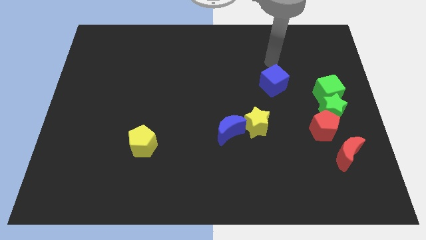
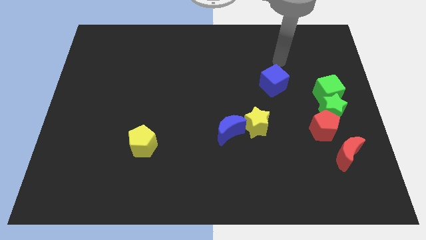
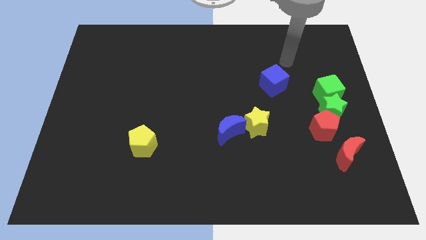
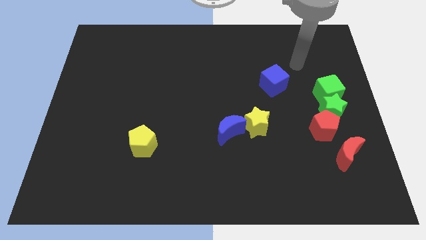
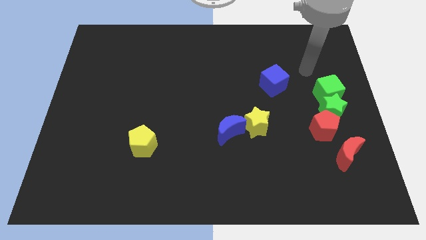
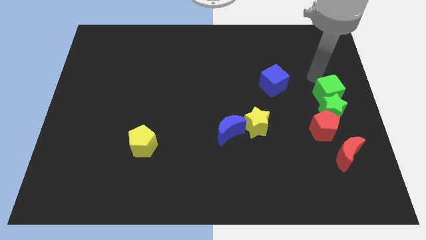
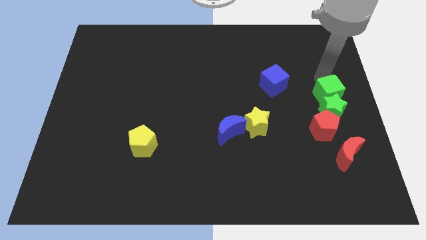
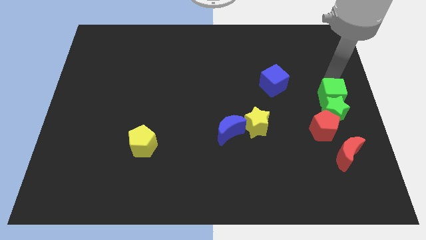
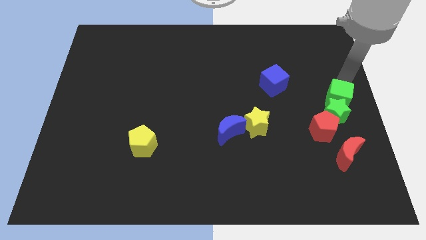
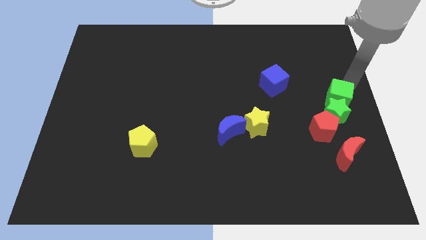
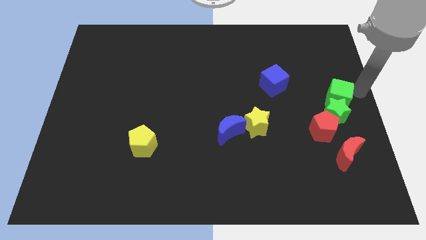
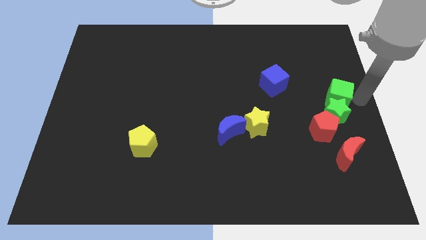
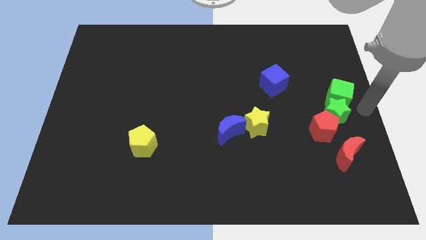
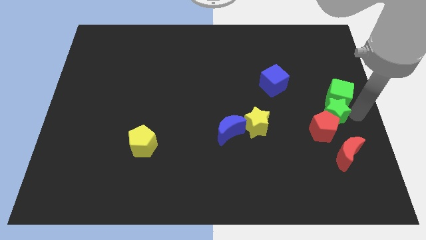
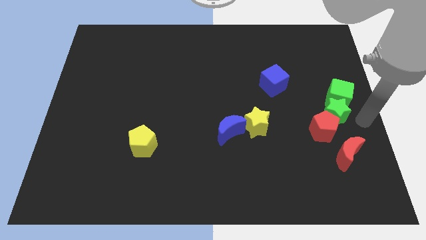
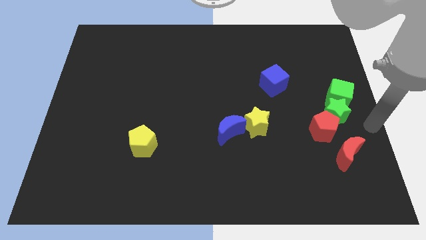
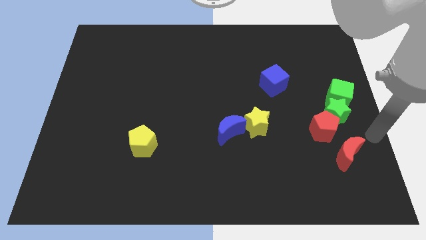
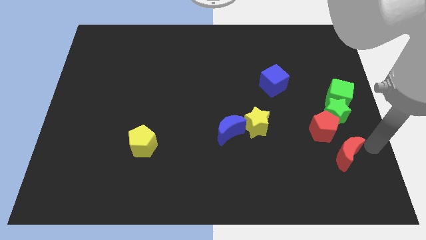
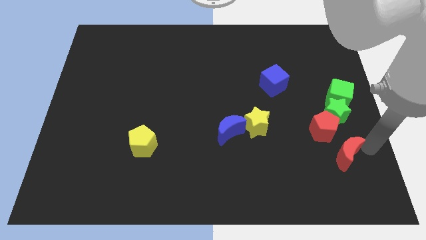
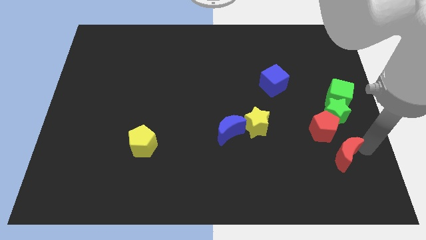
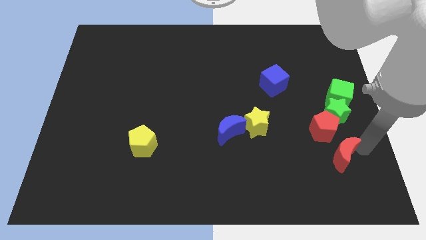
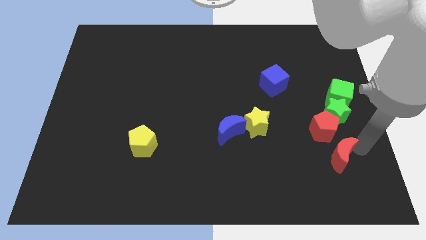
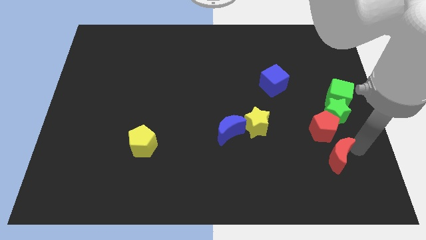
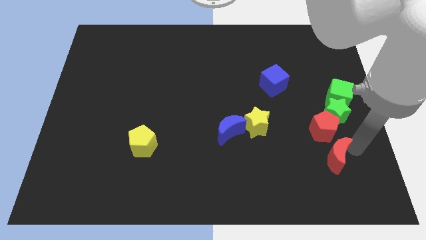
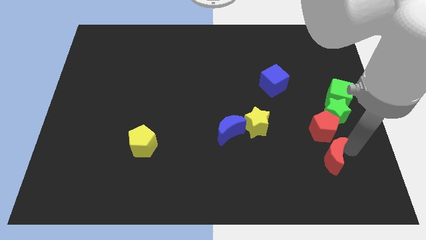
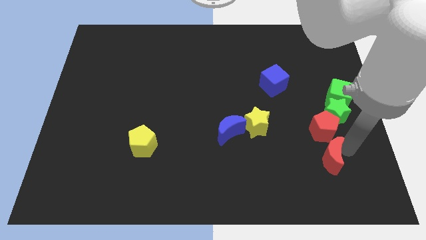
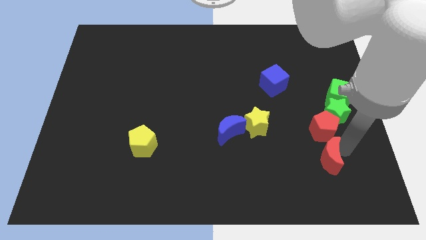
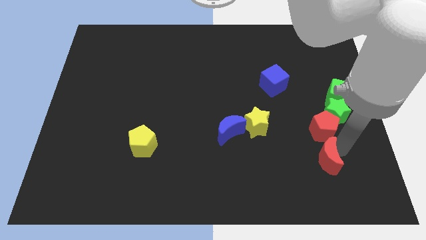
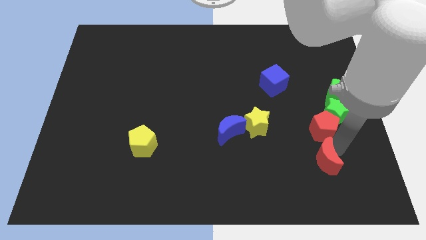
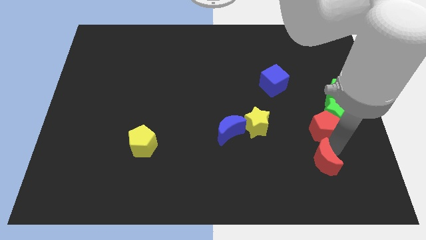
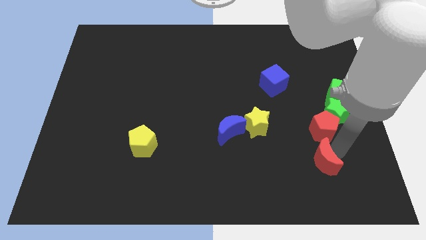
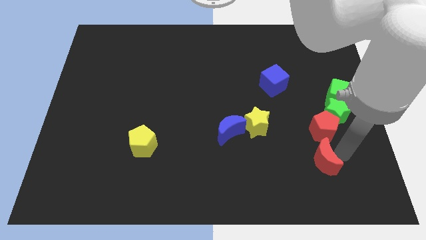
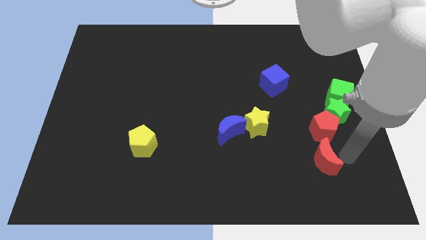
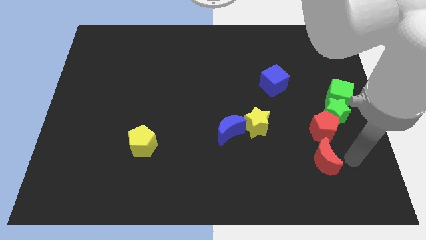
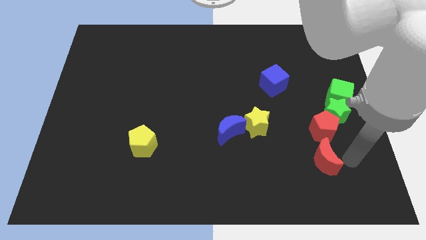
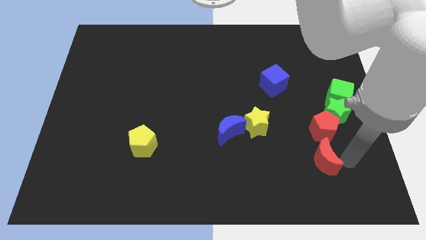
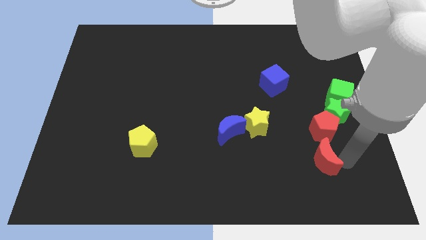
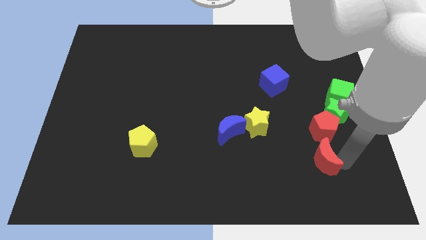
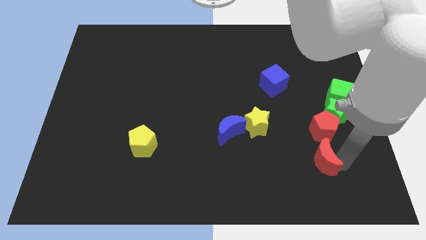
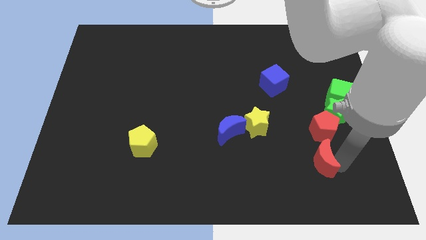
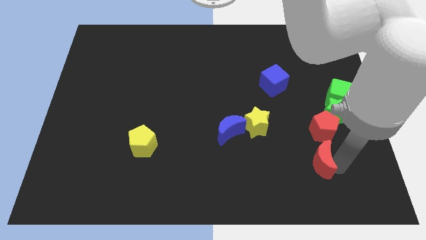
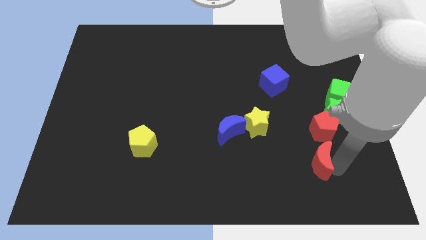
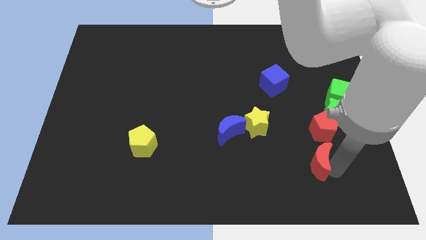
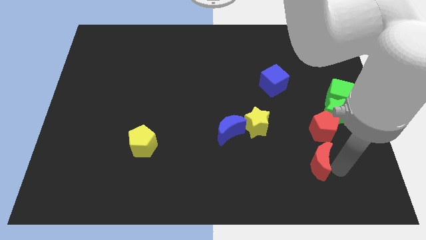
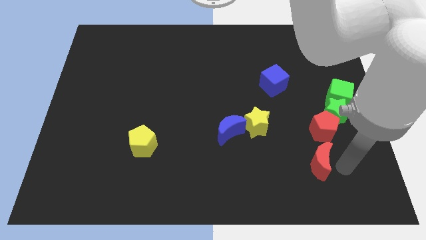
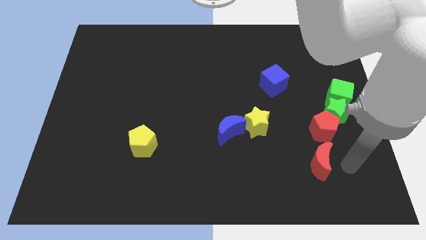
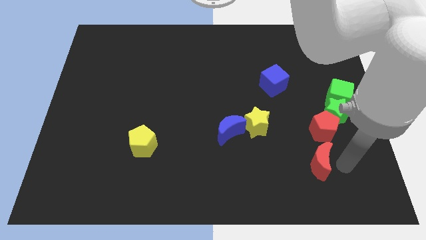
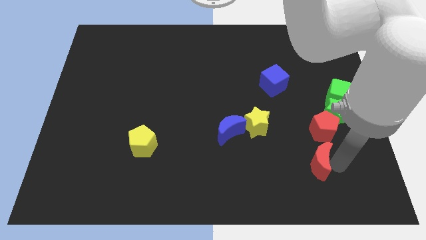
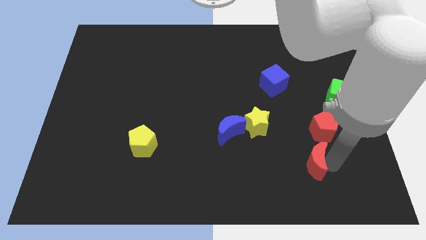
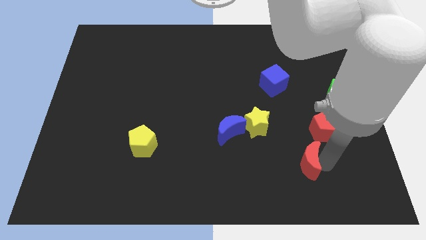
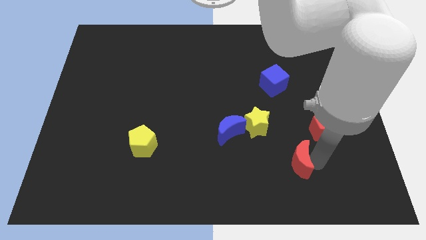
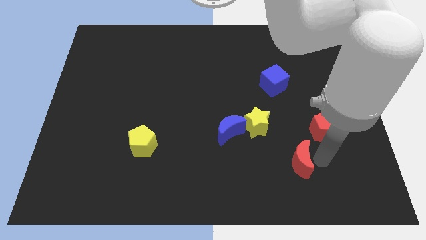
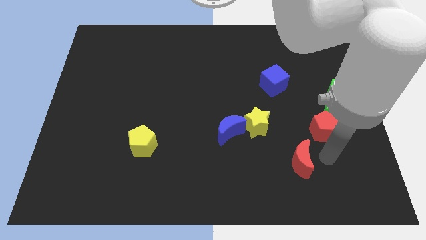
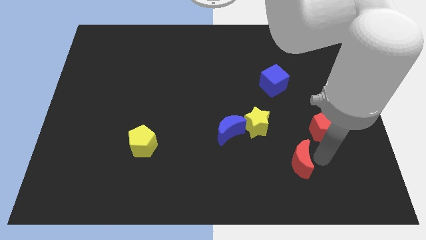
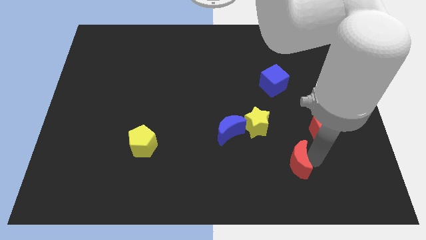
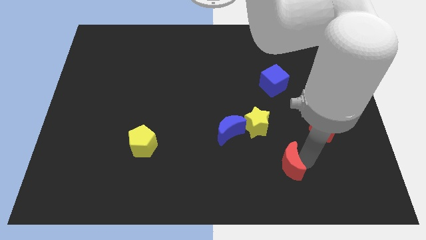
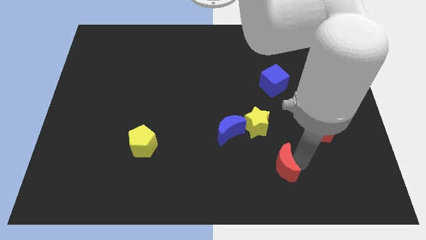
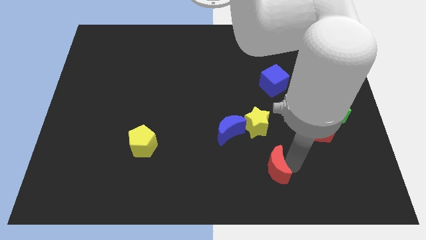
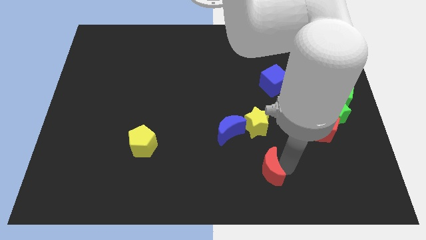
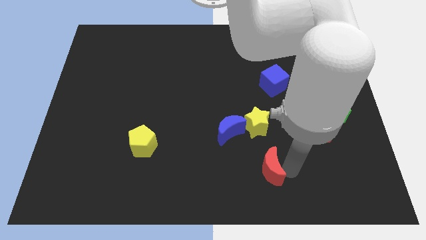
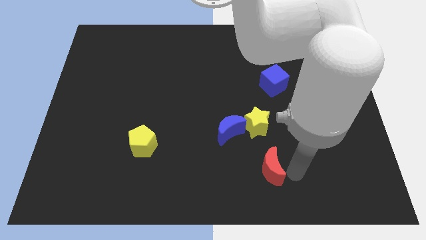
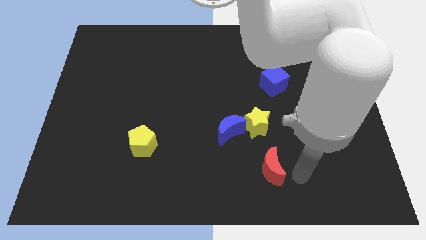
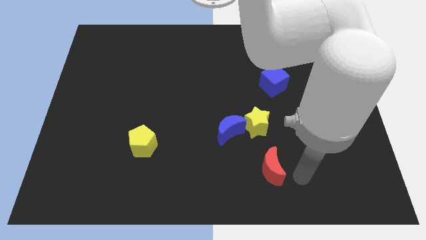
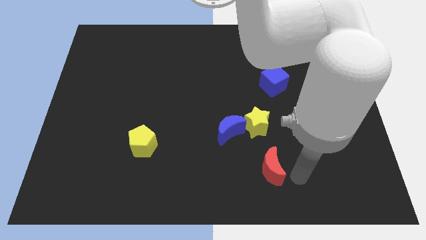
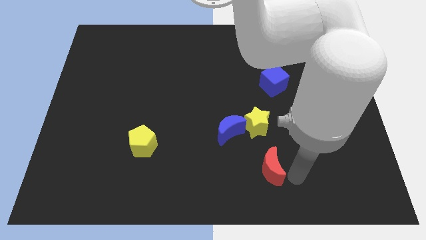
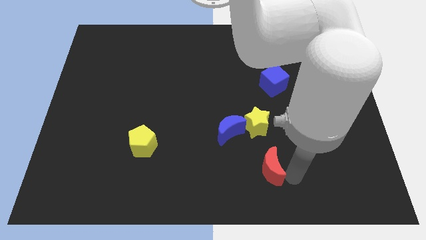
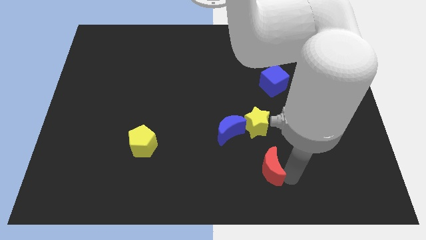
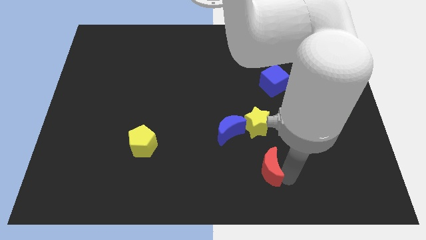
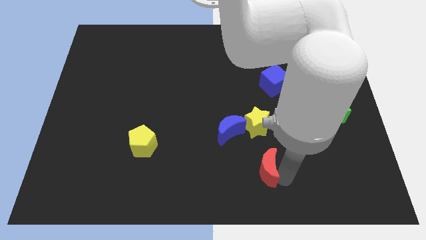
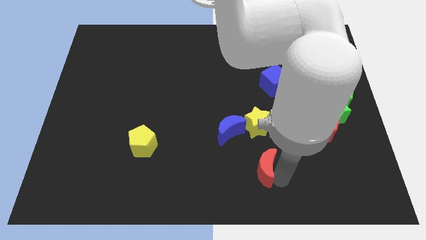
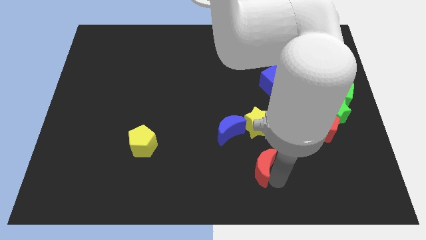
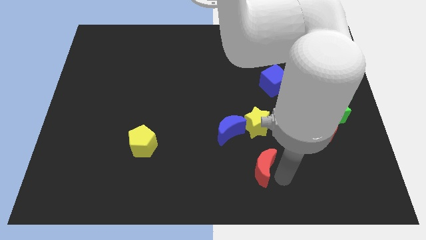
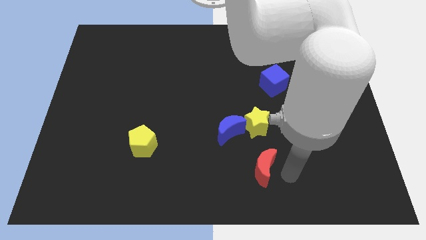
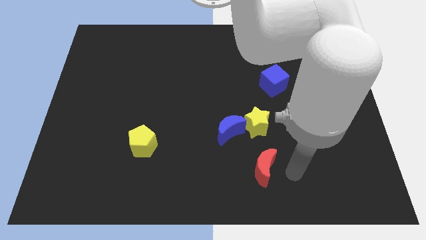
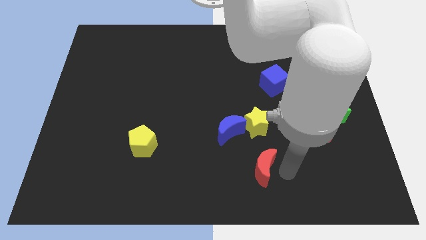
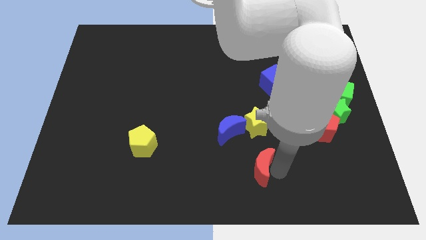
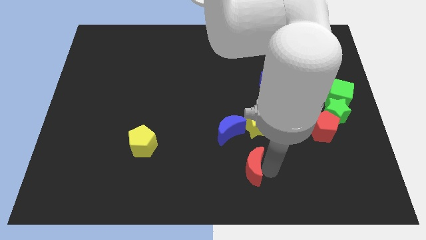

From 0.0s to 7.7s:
slide the red moon to the left

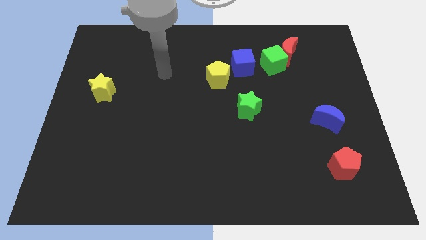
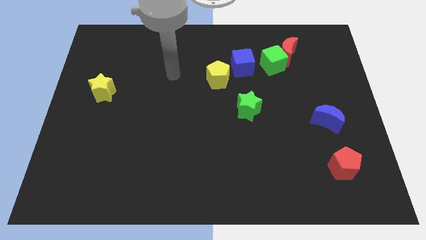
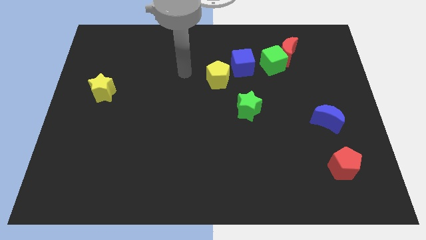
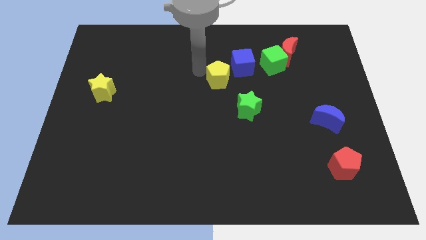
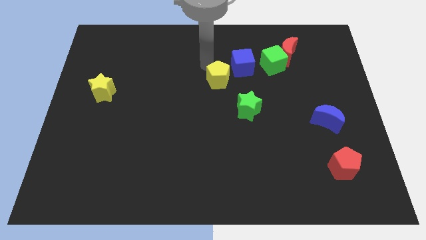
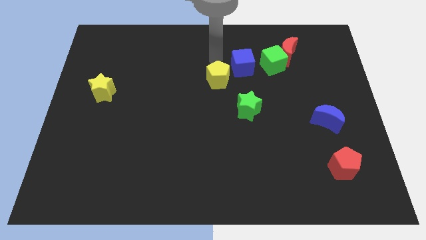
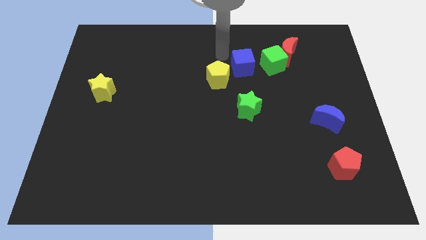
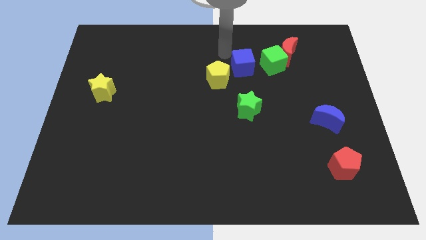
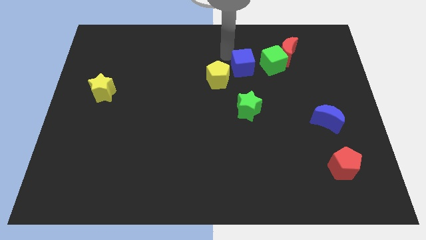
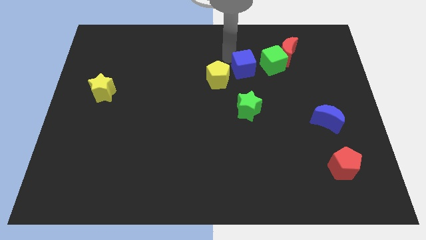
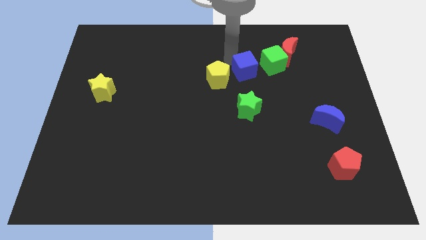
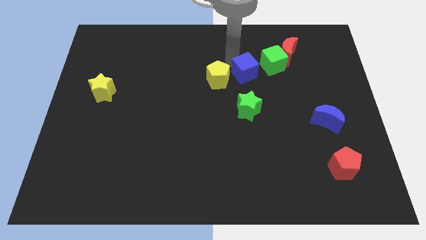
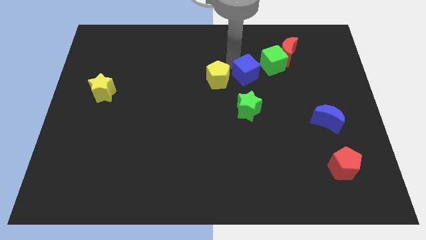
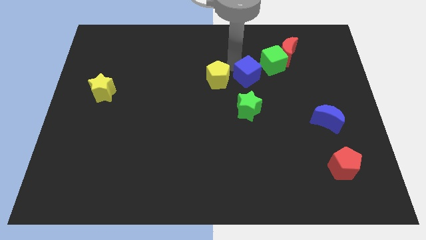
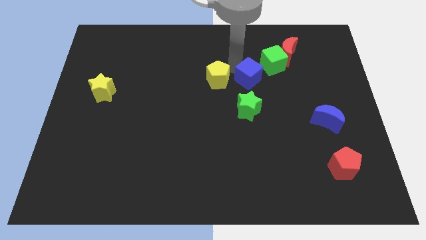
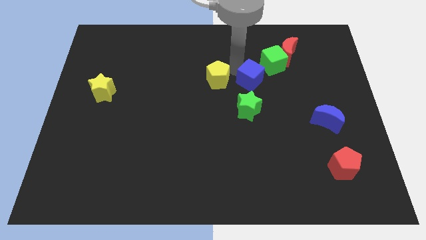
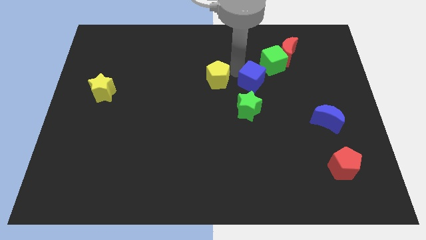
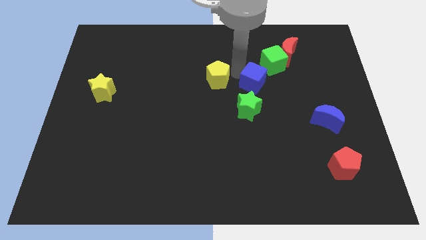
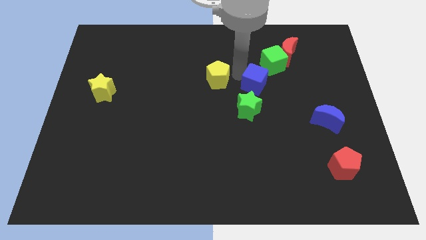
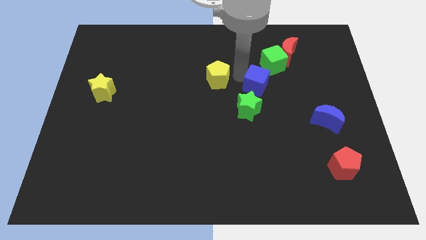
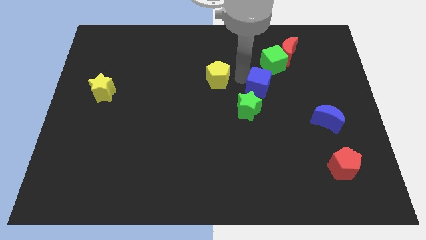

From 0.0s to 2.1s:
slightly push the blue cube downwards and to the right
